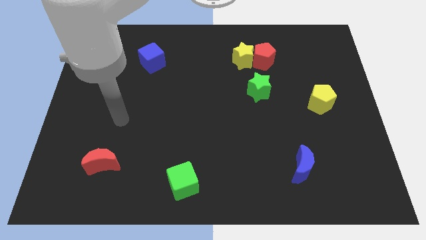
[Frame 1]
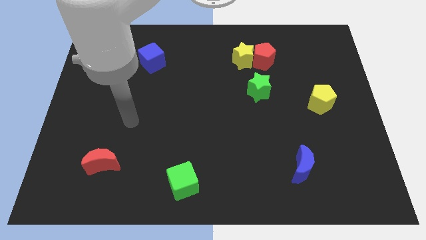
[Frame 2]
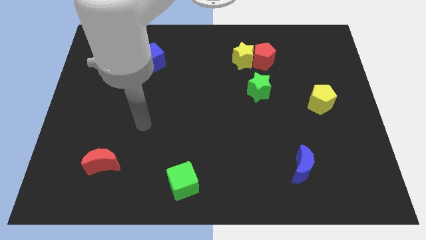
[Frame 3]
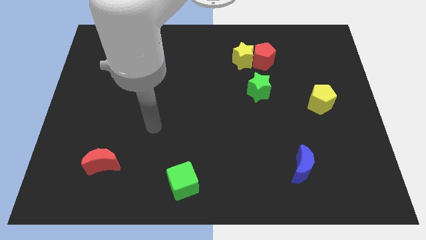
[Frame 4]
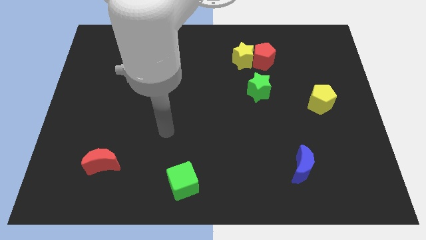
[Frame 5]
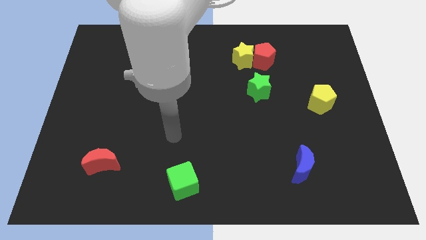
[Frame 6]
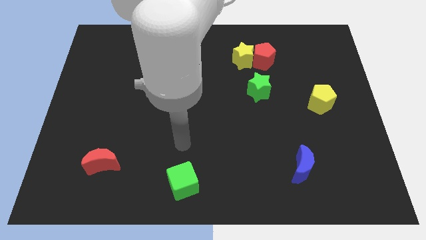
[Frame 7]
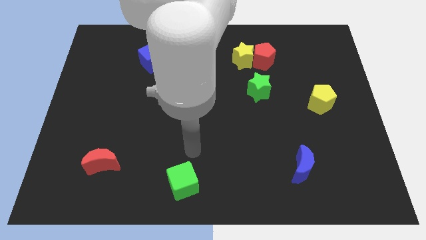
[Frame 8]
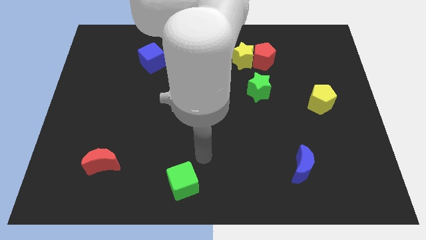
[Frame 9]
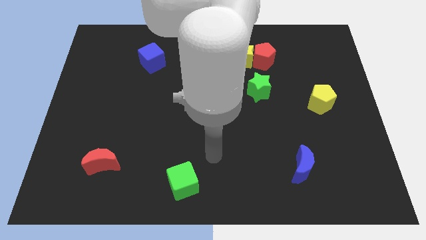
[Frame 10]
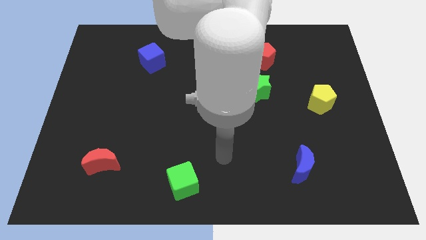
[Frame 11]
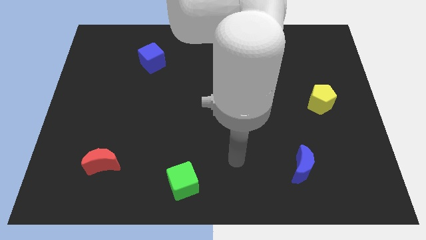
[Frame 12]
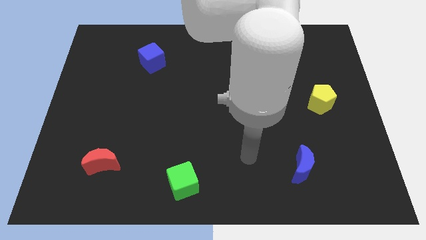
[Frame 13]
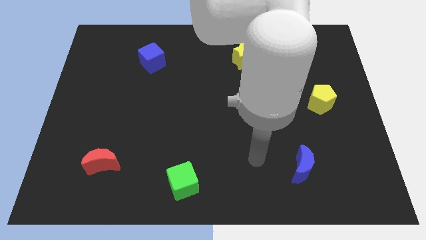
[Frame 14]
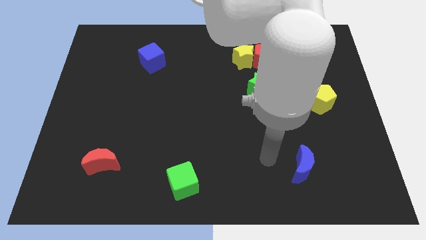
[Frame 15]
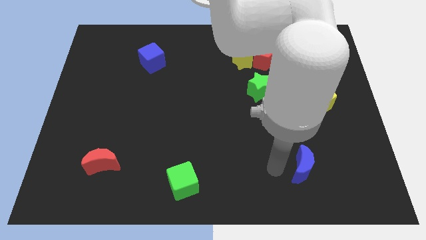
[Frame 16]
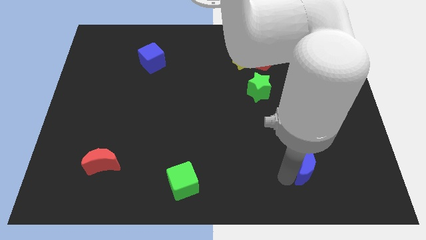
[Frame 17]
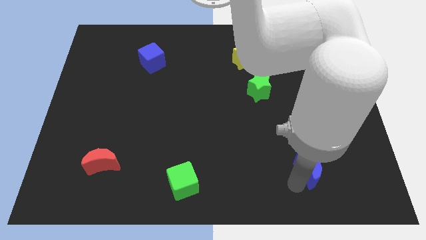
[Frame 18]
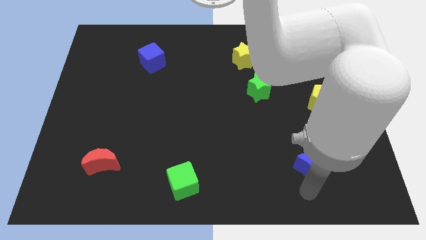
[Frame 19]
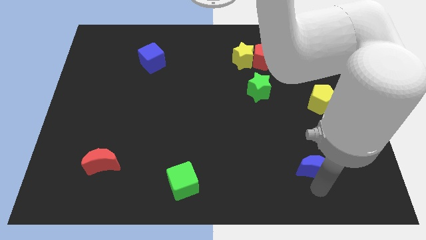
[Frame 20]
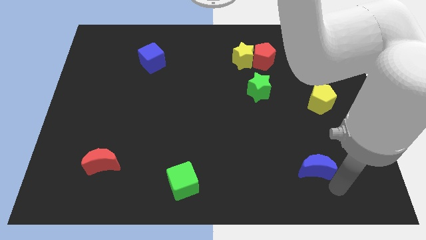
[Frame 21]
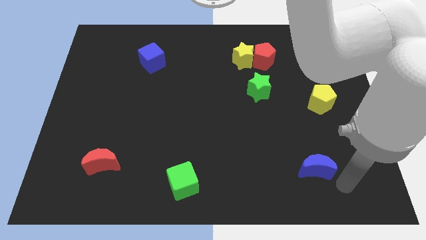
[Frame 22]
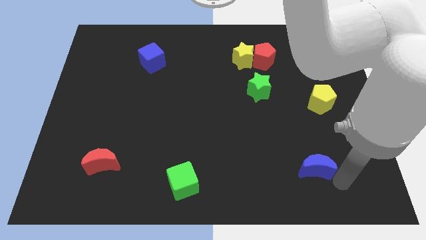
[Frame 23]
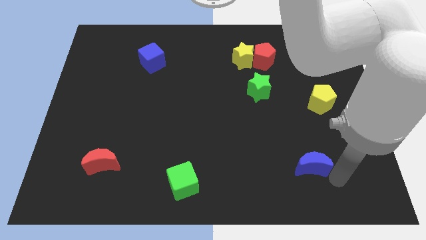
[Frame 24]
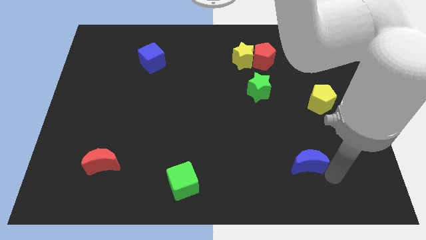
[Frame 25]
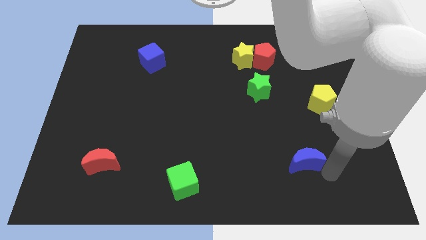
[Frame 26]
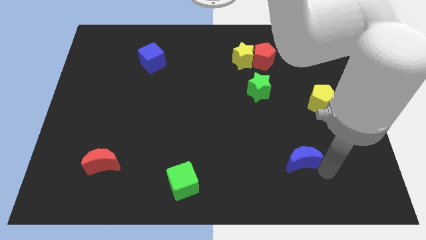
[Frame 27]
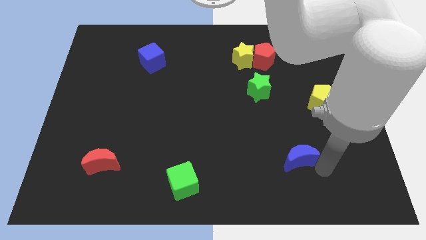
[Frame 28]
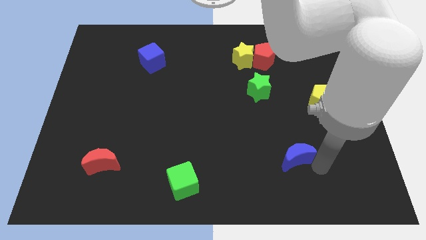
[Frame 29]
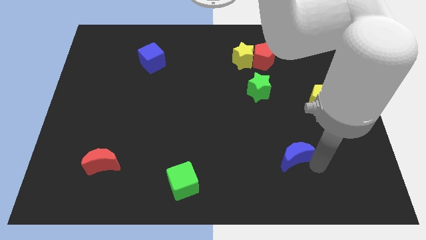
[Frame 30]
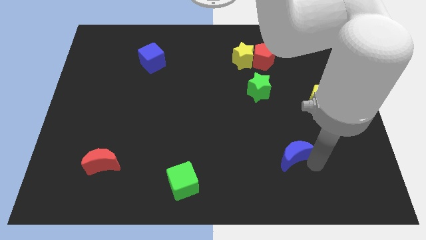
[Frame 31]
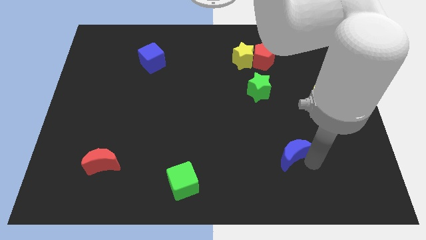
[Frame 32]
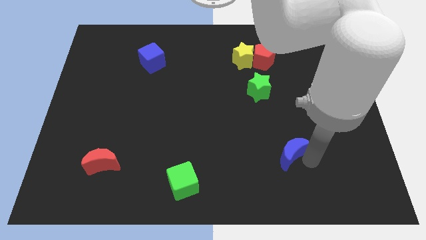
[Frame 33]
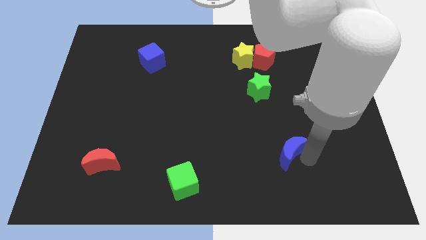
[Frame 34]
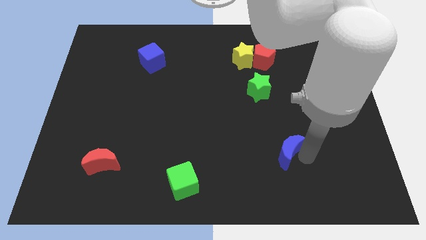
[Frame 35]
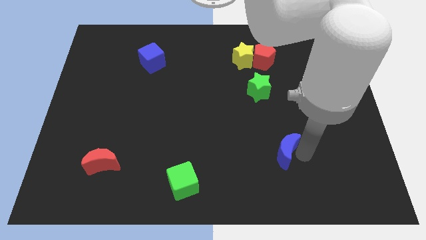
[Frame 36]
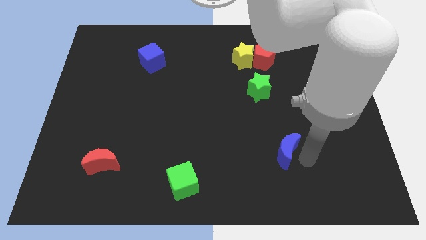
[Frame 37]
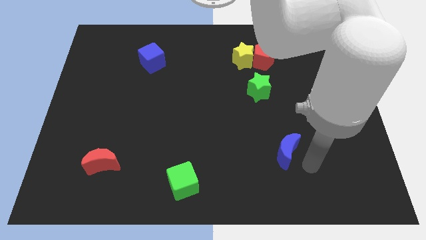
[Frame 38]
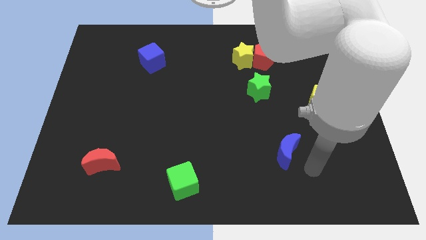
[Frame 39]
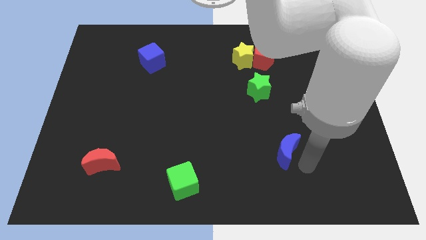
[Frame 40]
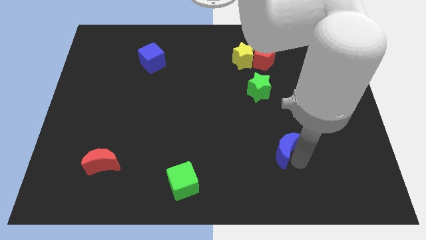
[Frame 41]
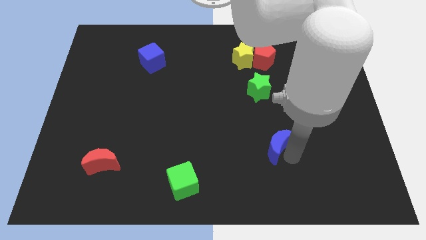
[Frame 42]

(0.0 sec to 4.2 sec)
move the blue moon diagonally upwards and to the left a little

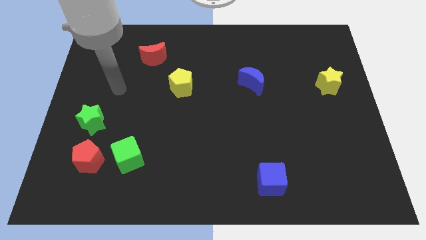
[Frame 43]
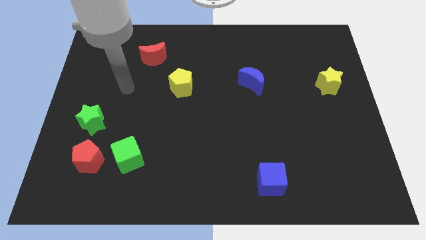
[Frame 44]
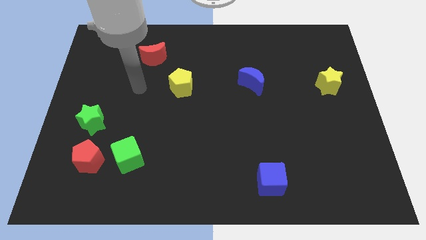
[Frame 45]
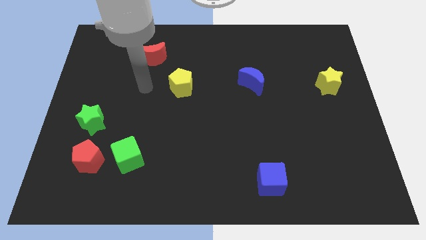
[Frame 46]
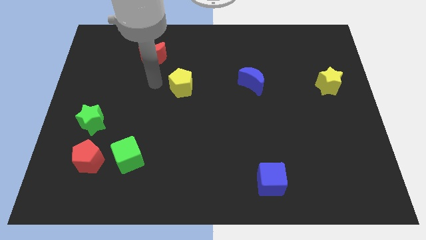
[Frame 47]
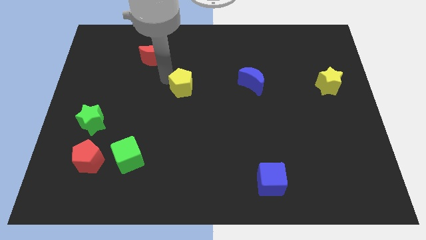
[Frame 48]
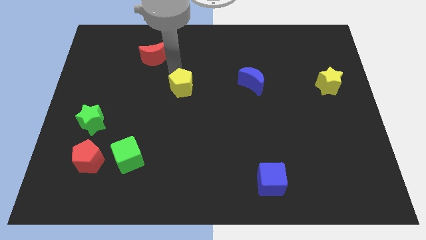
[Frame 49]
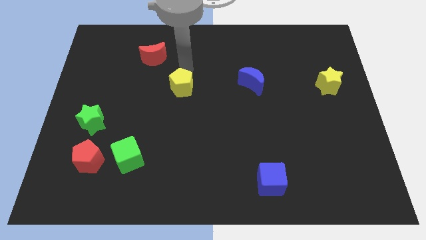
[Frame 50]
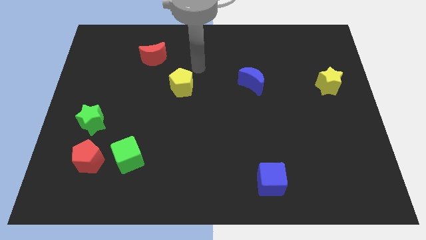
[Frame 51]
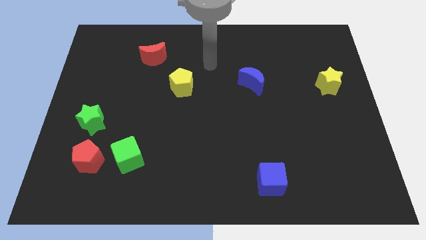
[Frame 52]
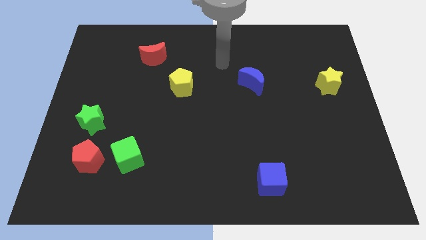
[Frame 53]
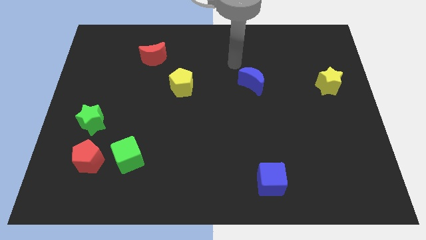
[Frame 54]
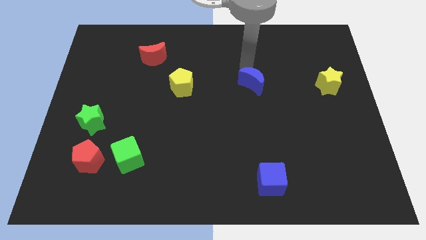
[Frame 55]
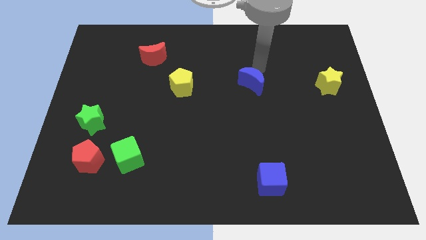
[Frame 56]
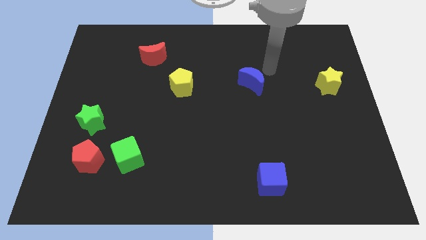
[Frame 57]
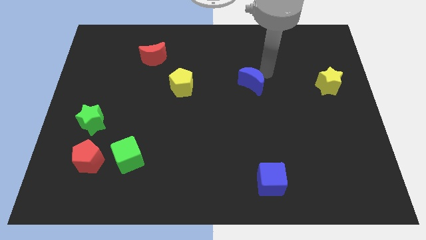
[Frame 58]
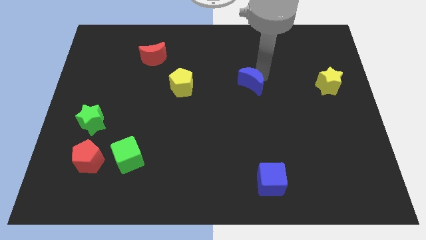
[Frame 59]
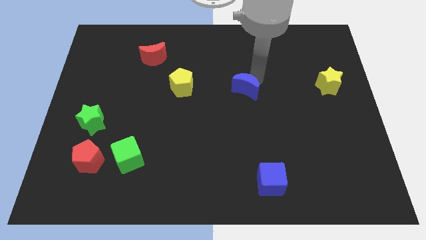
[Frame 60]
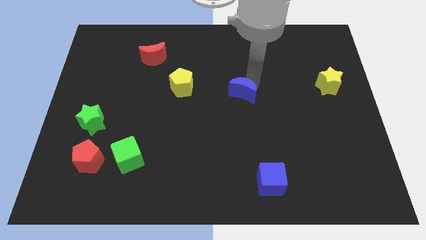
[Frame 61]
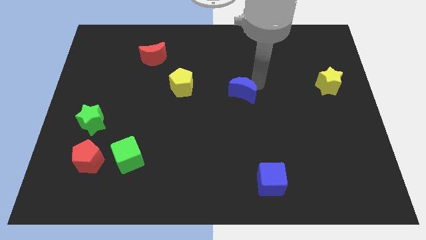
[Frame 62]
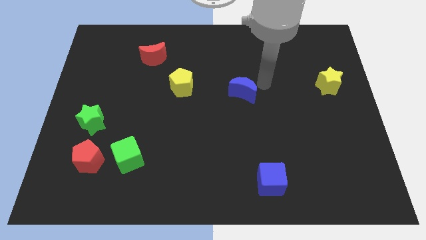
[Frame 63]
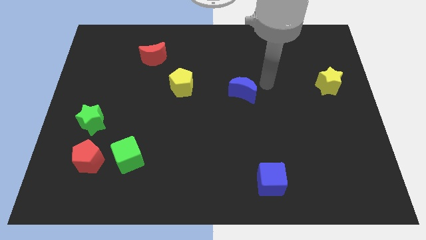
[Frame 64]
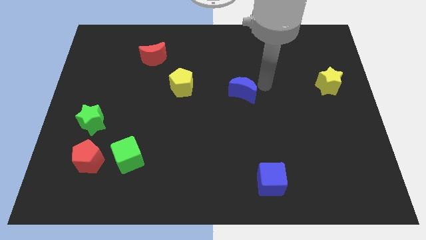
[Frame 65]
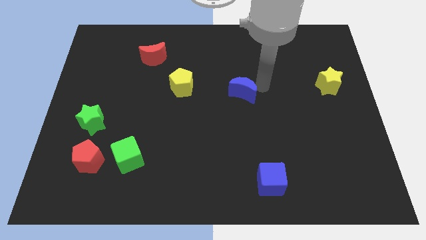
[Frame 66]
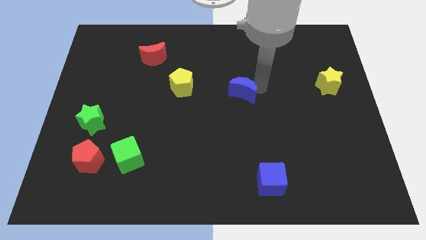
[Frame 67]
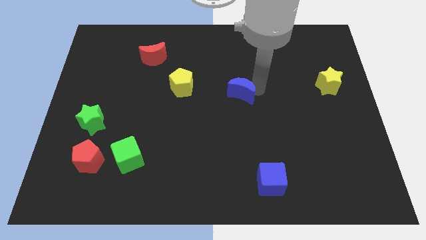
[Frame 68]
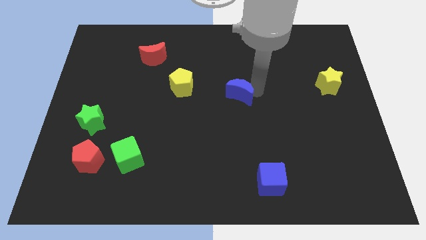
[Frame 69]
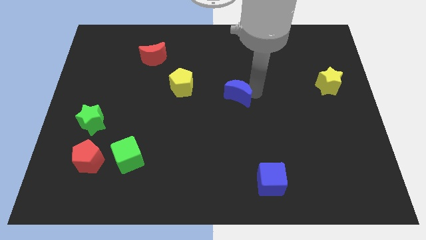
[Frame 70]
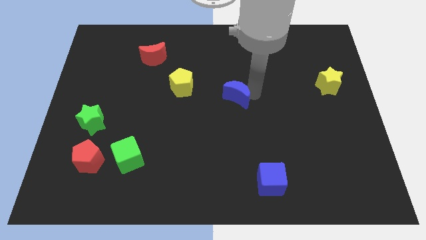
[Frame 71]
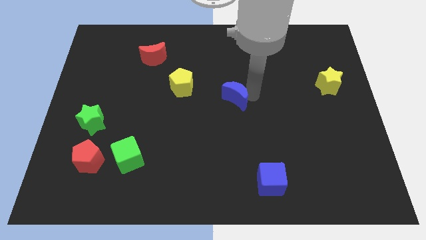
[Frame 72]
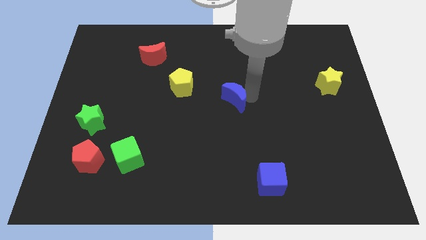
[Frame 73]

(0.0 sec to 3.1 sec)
slightly push the blue moon down and to the left

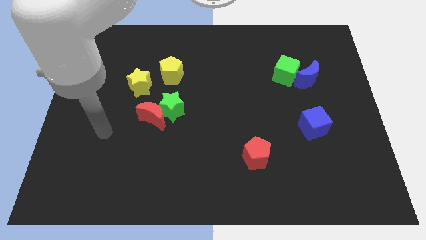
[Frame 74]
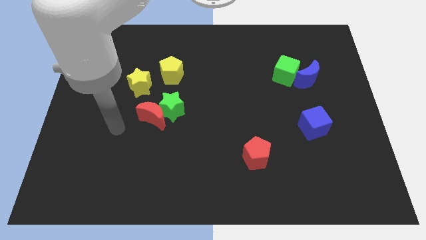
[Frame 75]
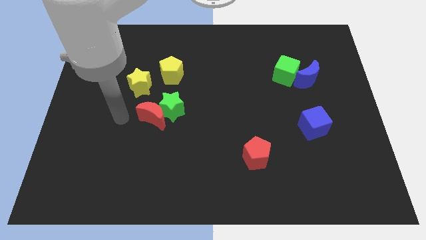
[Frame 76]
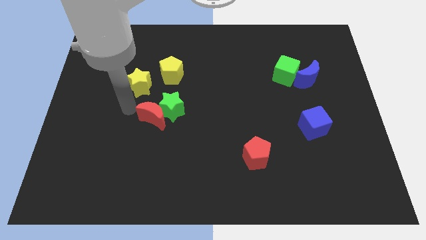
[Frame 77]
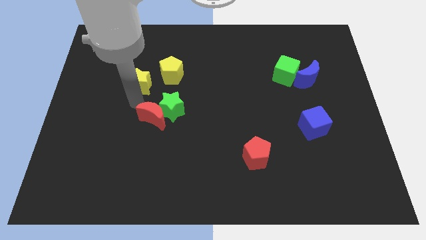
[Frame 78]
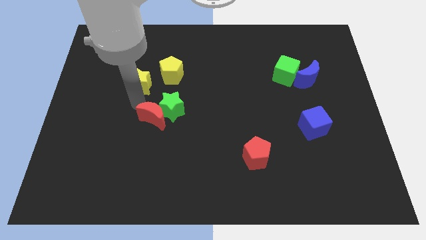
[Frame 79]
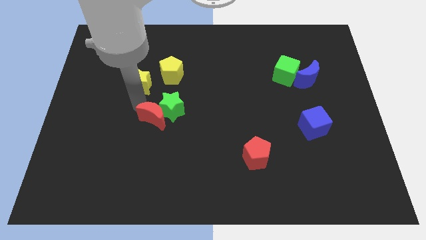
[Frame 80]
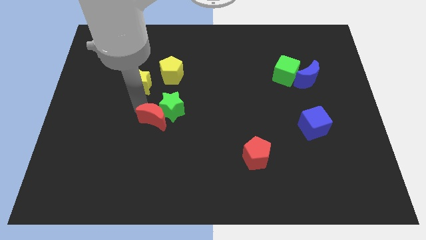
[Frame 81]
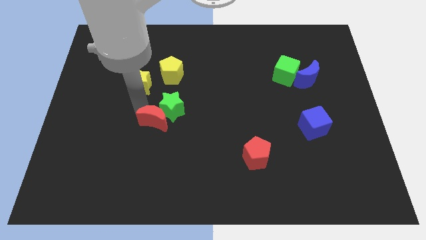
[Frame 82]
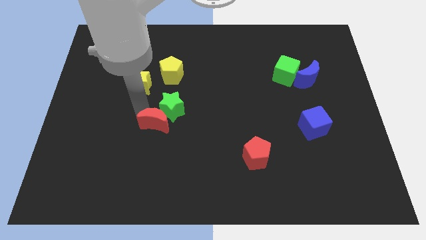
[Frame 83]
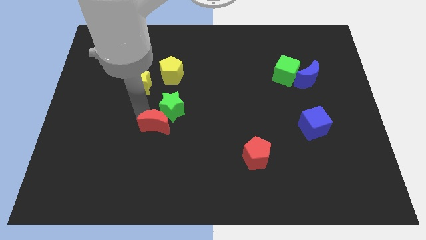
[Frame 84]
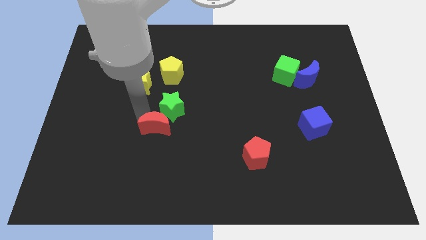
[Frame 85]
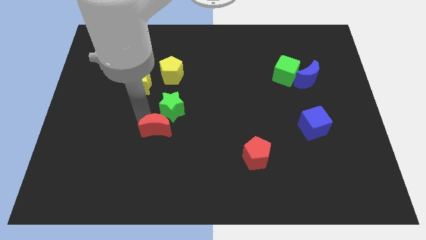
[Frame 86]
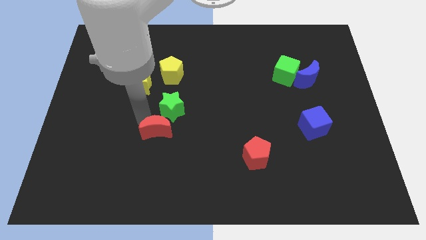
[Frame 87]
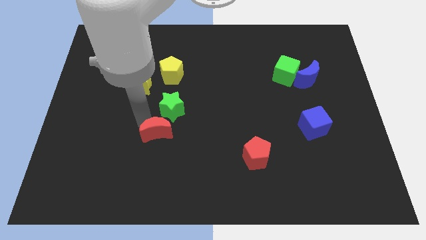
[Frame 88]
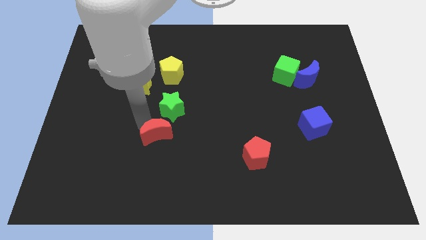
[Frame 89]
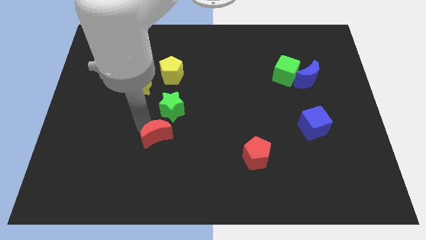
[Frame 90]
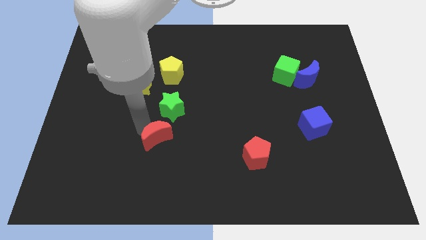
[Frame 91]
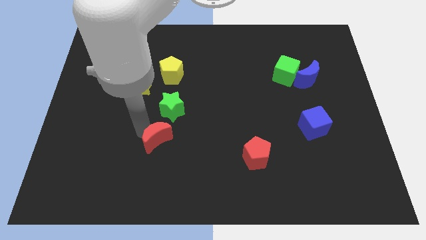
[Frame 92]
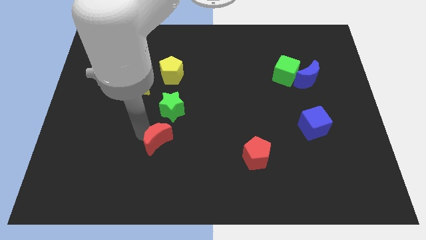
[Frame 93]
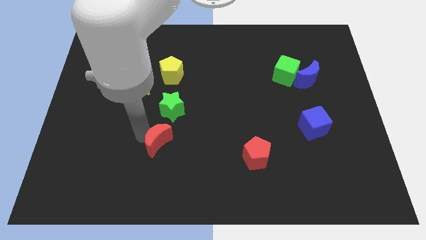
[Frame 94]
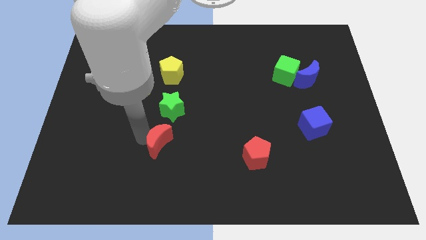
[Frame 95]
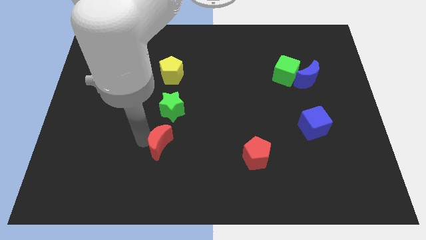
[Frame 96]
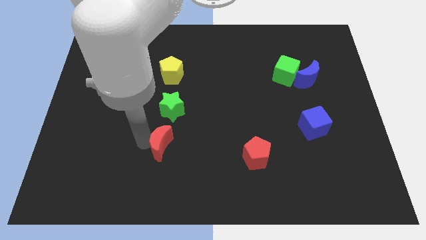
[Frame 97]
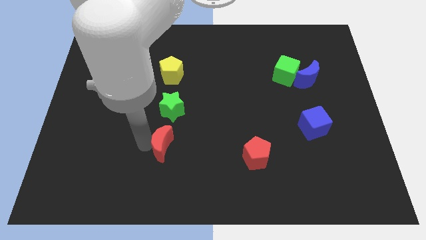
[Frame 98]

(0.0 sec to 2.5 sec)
move the red moon downwards and then to the right a little bit
